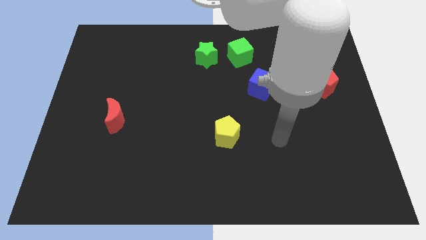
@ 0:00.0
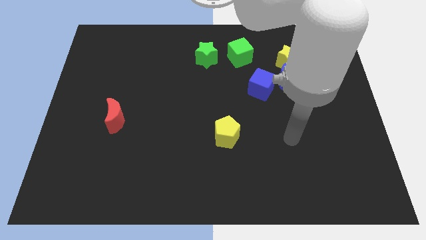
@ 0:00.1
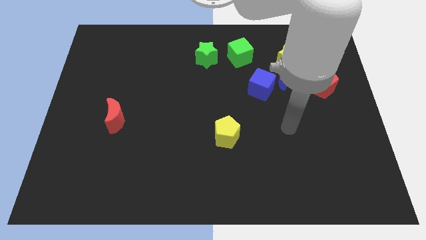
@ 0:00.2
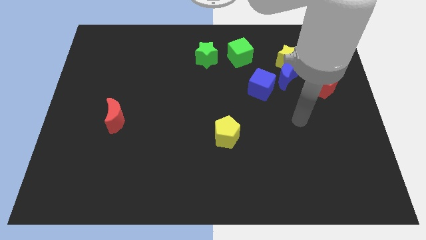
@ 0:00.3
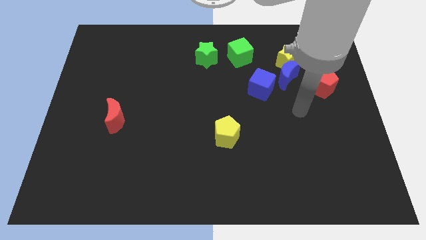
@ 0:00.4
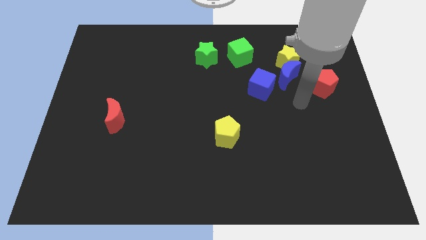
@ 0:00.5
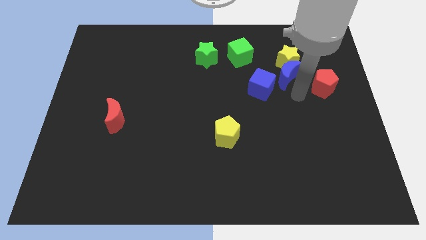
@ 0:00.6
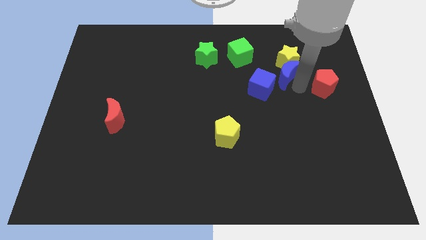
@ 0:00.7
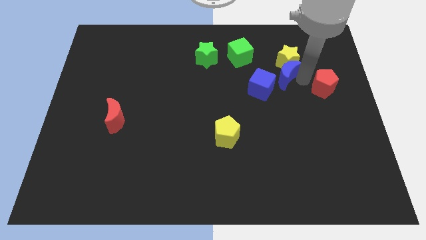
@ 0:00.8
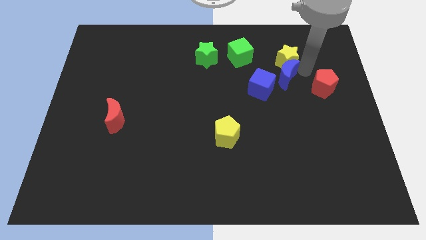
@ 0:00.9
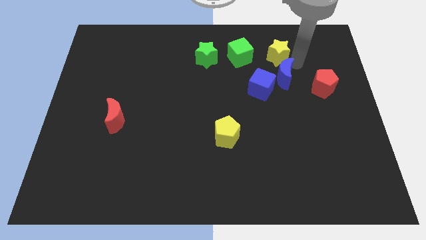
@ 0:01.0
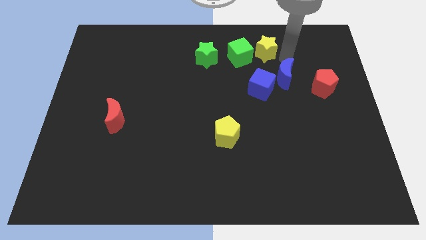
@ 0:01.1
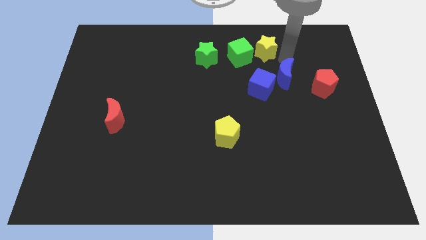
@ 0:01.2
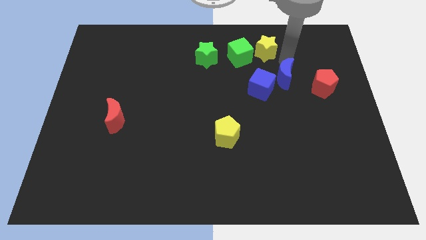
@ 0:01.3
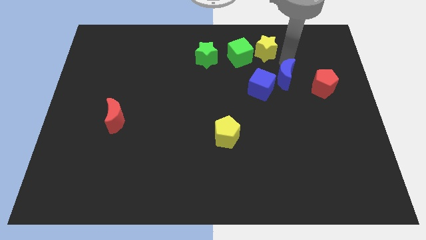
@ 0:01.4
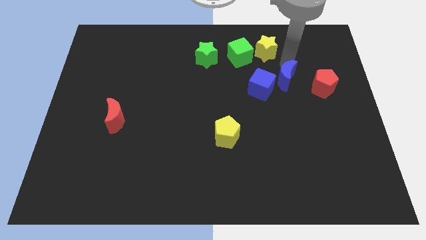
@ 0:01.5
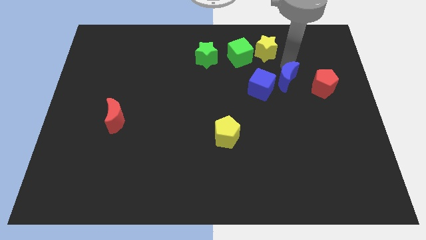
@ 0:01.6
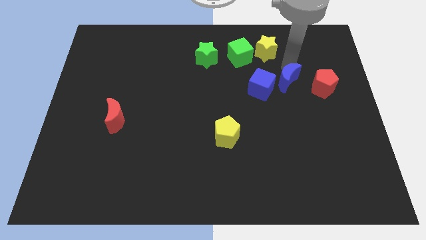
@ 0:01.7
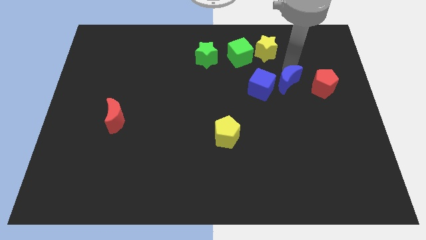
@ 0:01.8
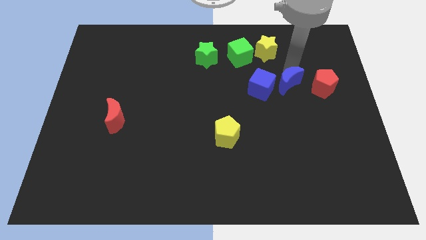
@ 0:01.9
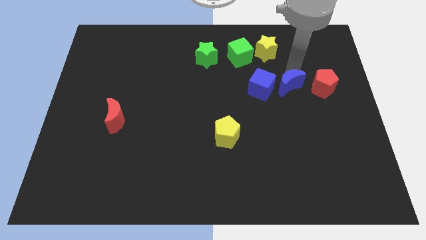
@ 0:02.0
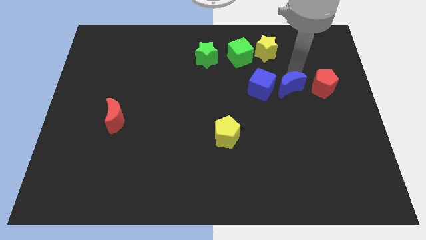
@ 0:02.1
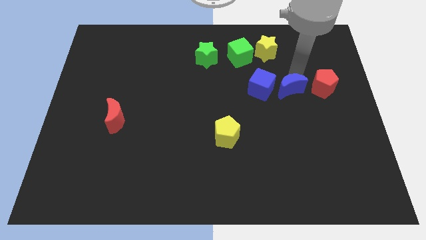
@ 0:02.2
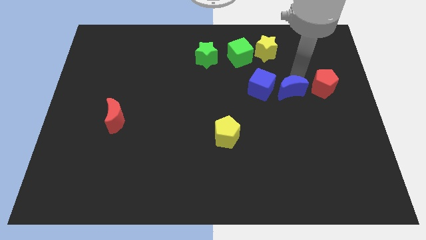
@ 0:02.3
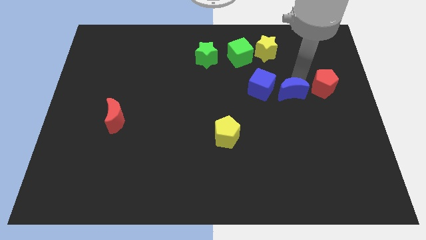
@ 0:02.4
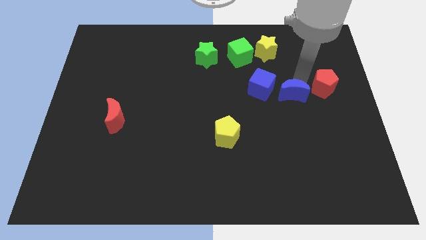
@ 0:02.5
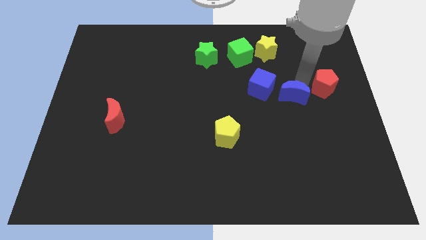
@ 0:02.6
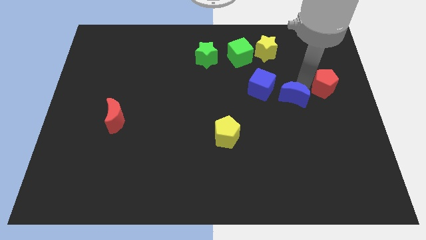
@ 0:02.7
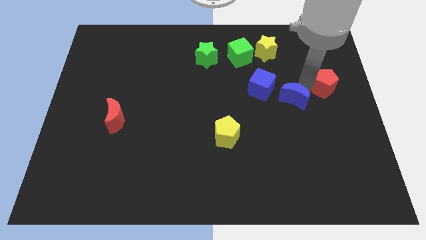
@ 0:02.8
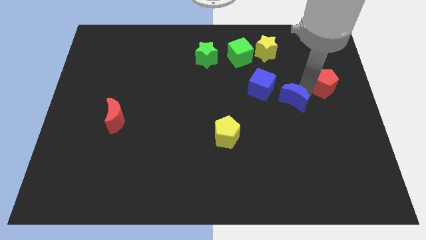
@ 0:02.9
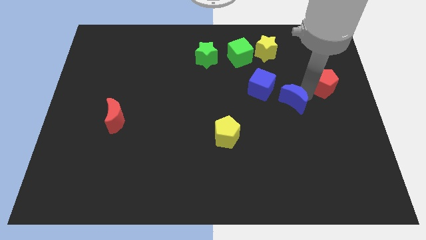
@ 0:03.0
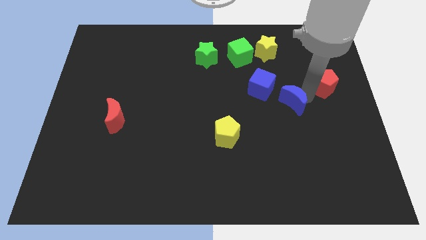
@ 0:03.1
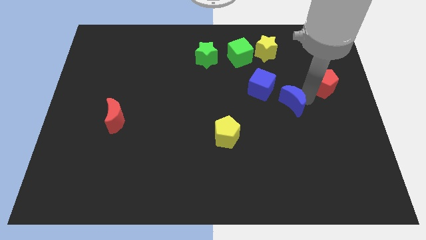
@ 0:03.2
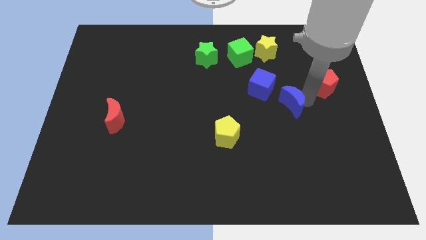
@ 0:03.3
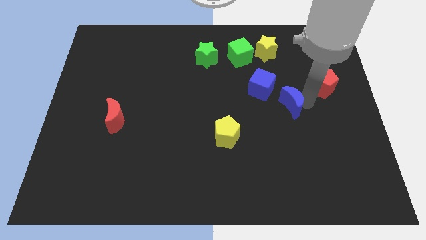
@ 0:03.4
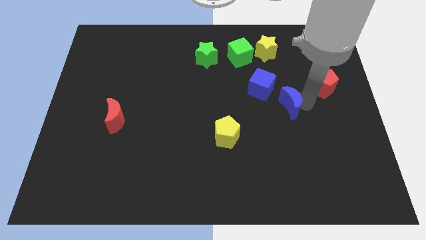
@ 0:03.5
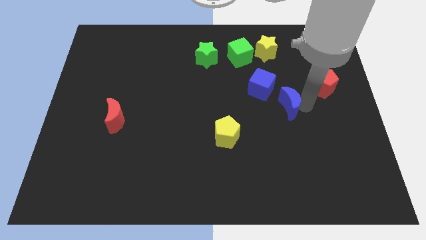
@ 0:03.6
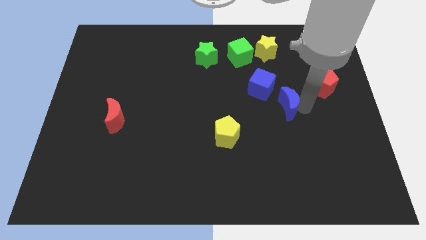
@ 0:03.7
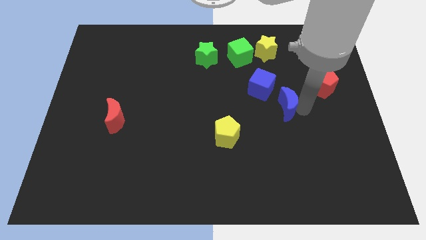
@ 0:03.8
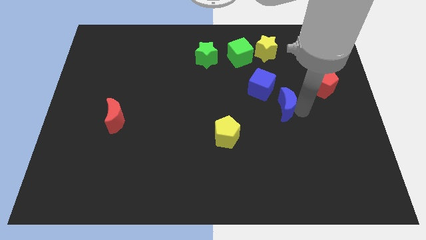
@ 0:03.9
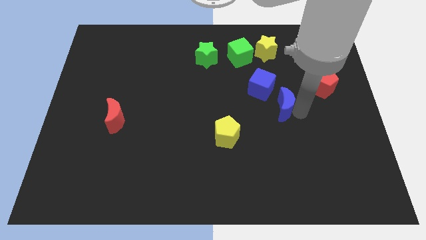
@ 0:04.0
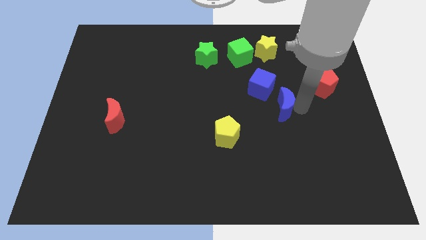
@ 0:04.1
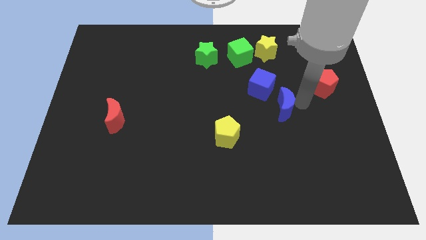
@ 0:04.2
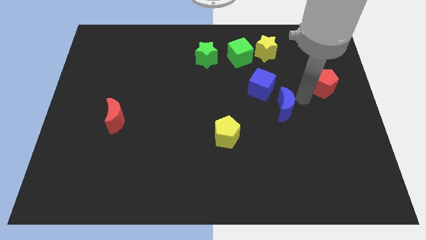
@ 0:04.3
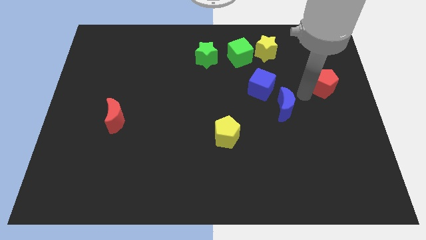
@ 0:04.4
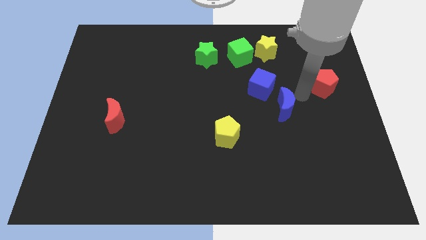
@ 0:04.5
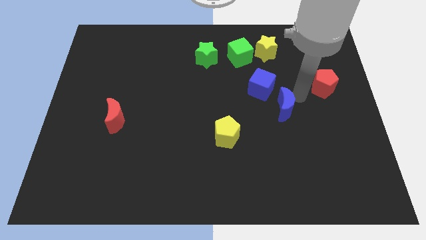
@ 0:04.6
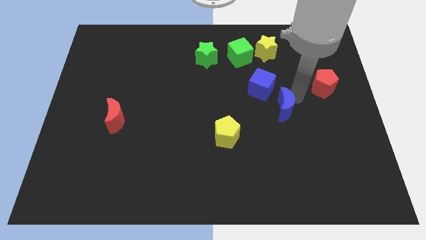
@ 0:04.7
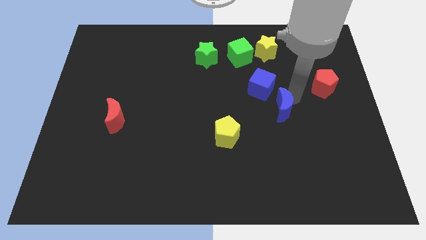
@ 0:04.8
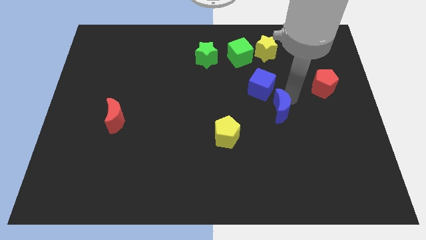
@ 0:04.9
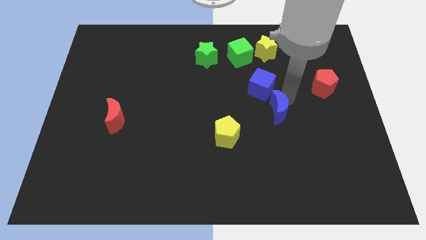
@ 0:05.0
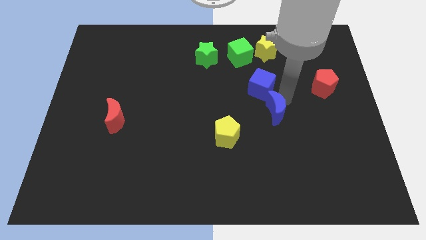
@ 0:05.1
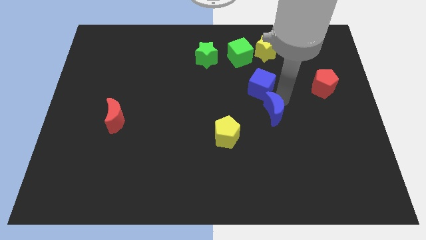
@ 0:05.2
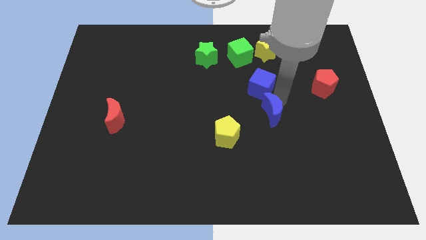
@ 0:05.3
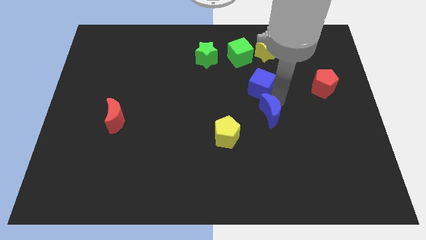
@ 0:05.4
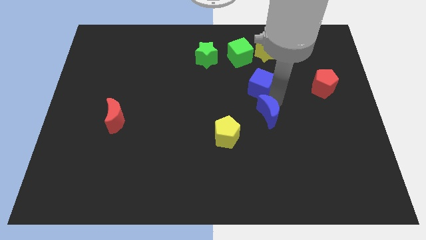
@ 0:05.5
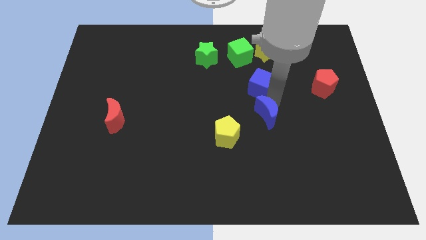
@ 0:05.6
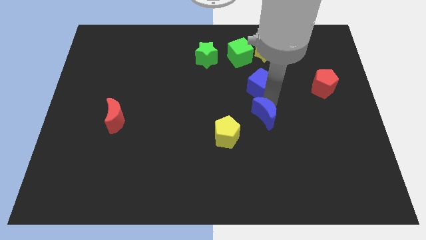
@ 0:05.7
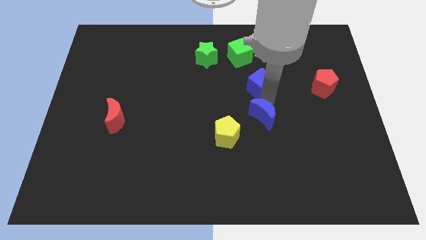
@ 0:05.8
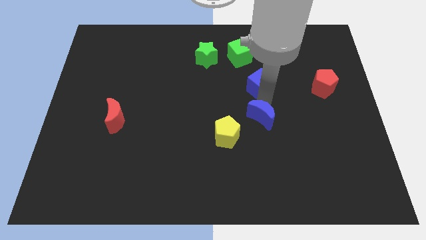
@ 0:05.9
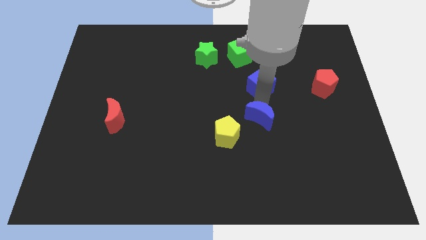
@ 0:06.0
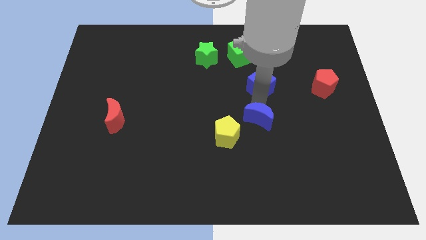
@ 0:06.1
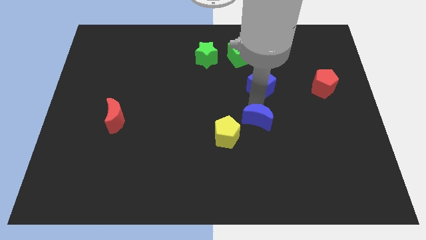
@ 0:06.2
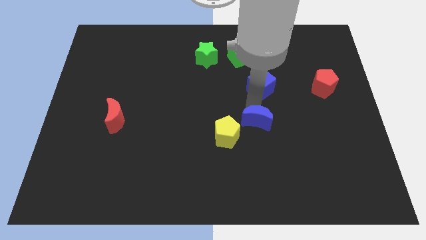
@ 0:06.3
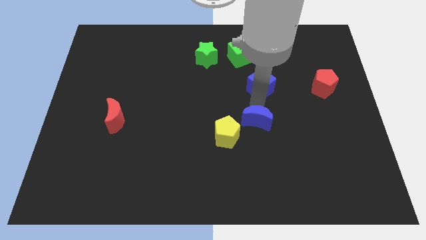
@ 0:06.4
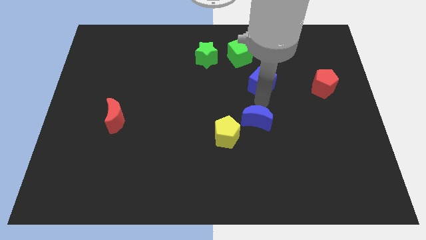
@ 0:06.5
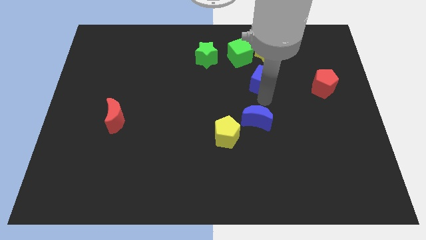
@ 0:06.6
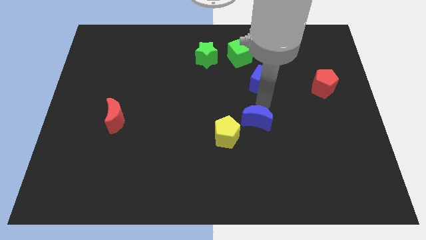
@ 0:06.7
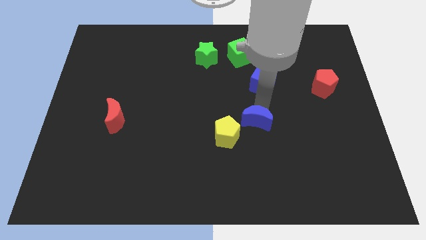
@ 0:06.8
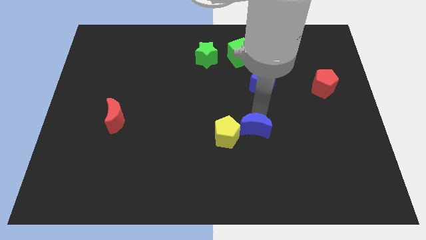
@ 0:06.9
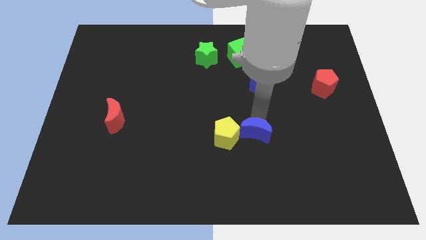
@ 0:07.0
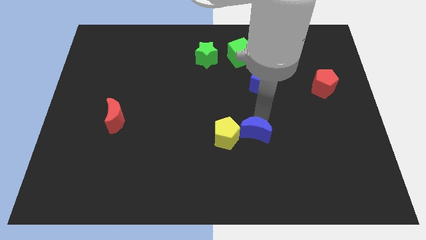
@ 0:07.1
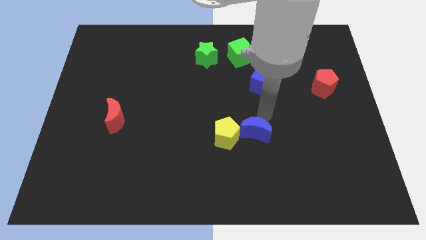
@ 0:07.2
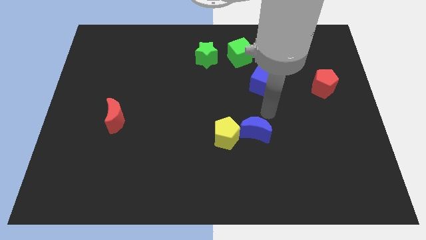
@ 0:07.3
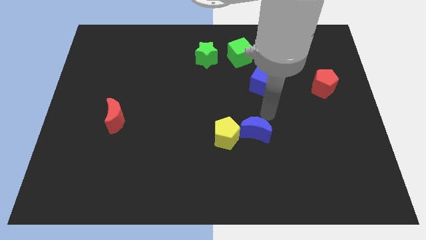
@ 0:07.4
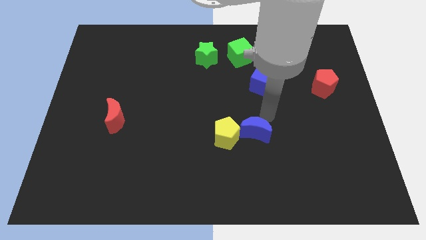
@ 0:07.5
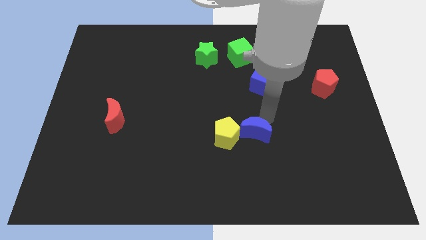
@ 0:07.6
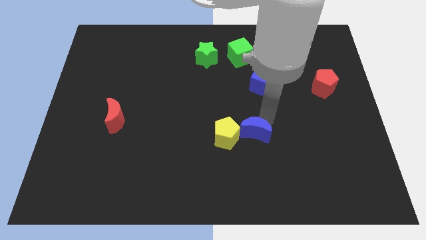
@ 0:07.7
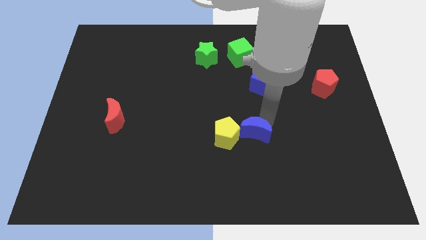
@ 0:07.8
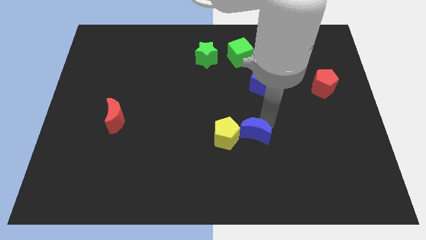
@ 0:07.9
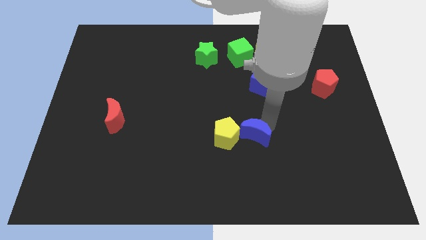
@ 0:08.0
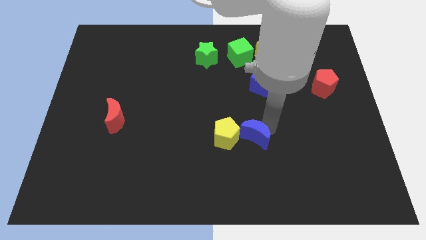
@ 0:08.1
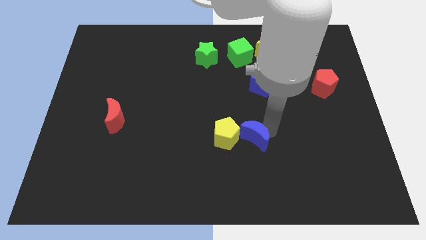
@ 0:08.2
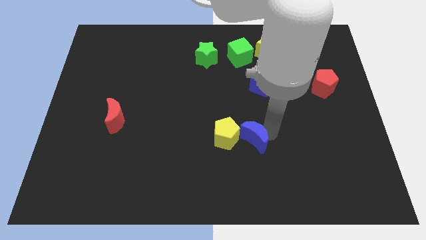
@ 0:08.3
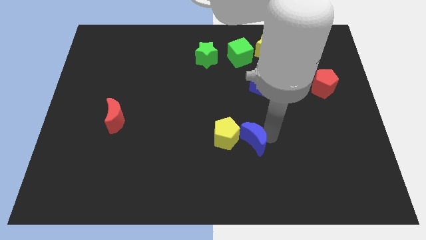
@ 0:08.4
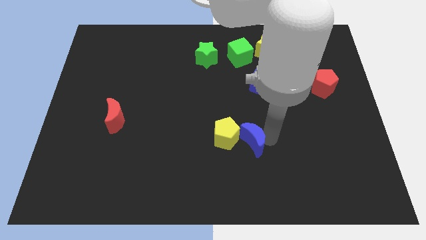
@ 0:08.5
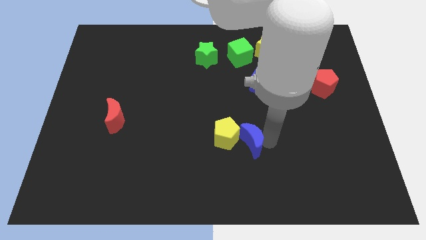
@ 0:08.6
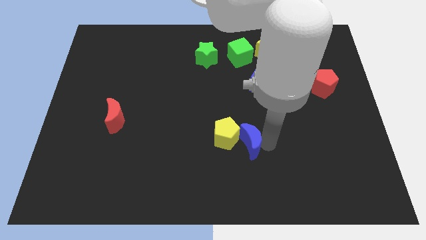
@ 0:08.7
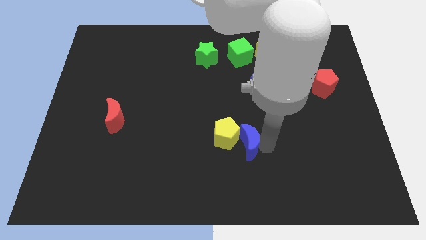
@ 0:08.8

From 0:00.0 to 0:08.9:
push the blue moon diagonally downwards and to the left
